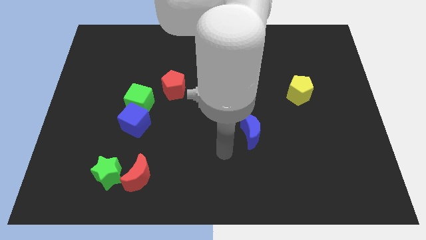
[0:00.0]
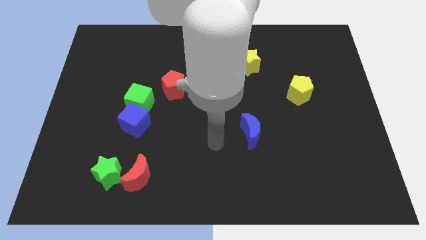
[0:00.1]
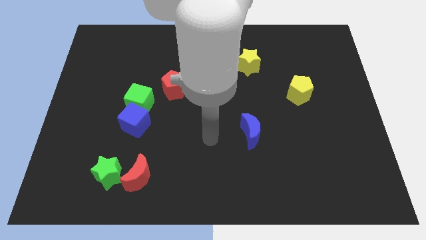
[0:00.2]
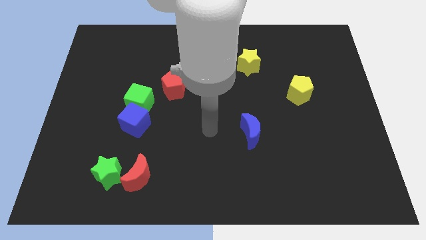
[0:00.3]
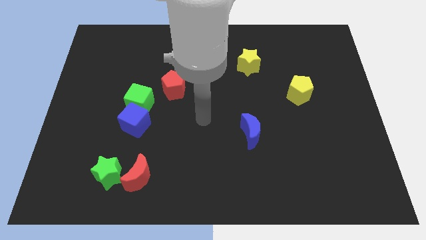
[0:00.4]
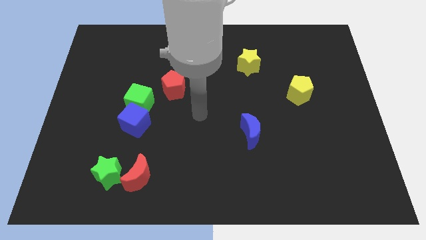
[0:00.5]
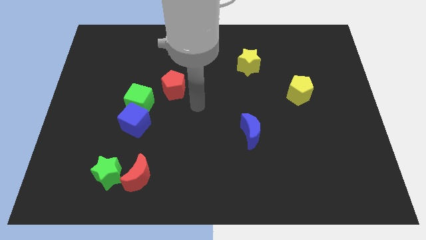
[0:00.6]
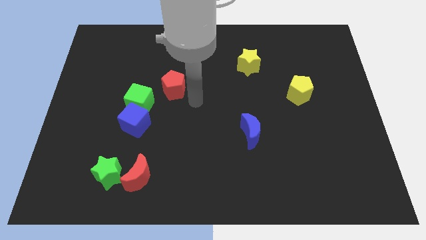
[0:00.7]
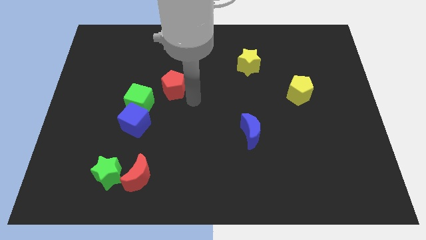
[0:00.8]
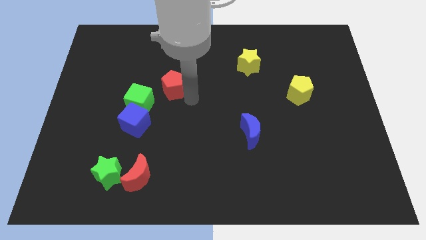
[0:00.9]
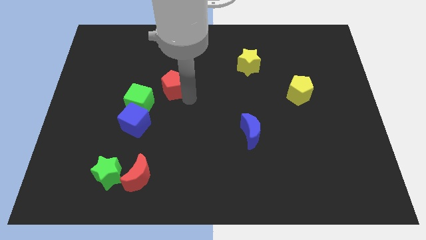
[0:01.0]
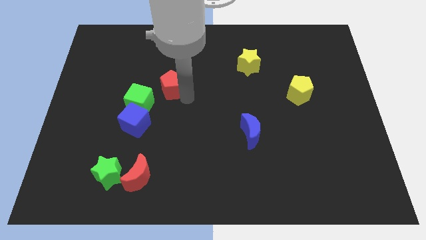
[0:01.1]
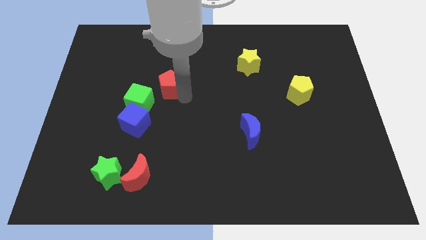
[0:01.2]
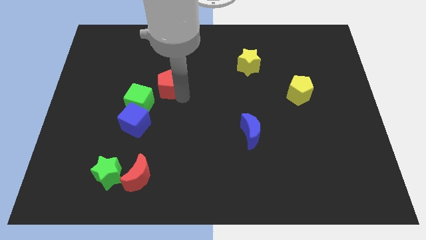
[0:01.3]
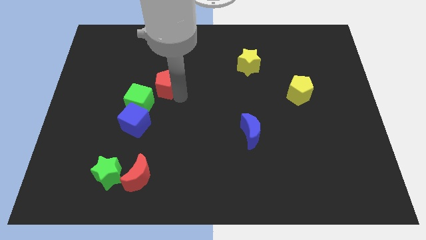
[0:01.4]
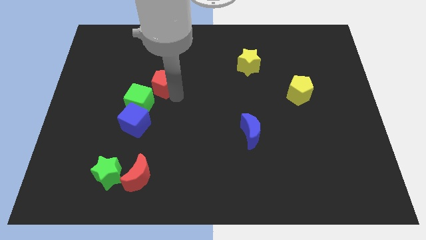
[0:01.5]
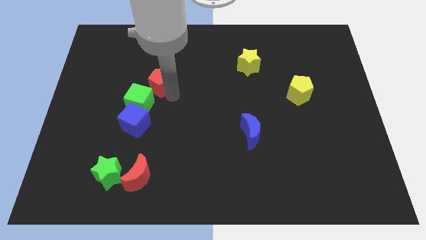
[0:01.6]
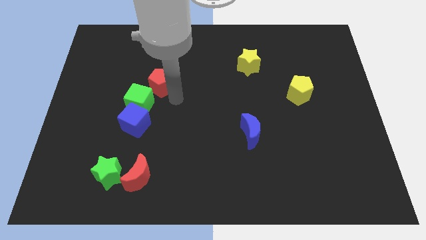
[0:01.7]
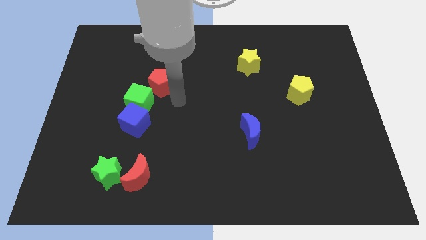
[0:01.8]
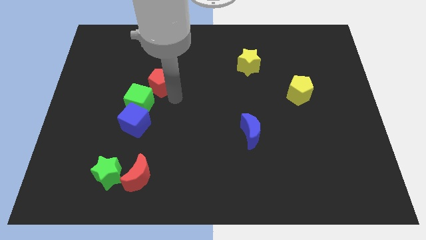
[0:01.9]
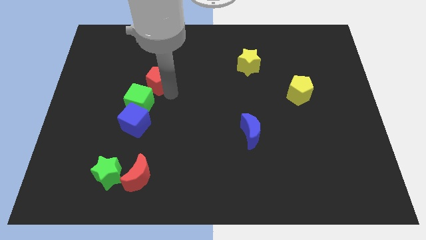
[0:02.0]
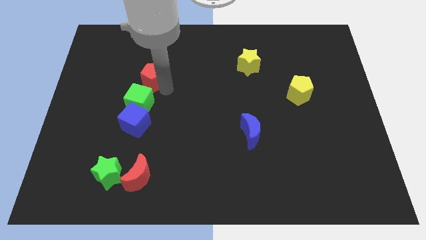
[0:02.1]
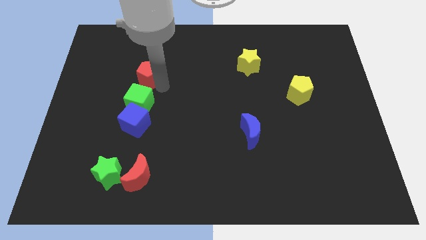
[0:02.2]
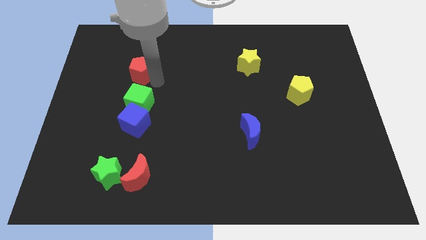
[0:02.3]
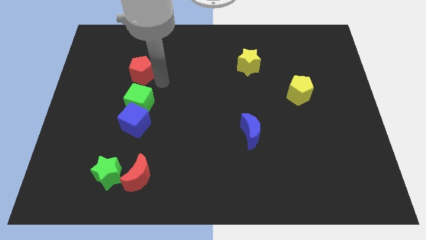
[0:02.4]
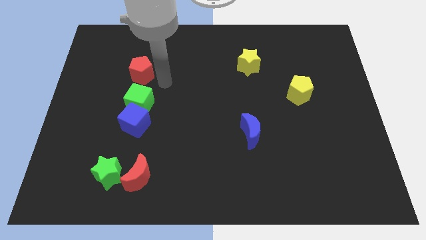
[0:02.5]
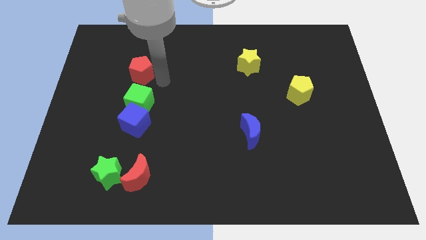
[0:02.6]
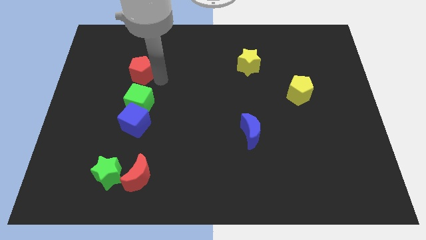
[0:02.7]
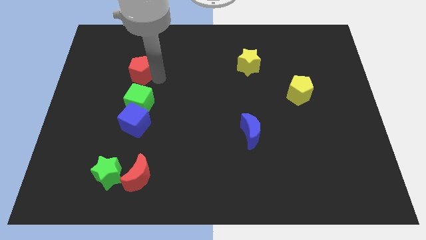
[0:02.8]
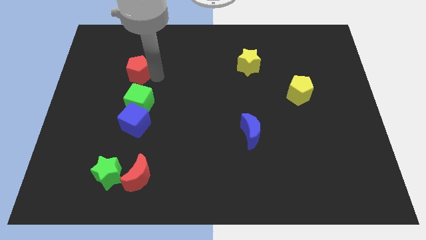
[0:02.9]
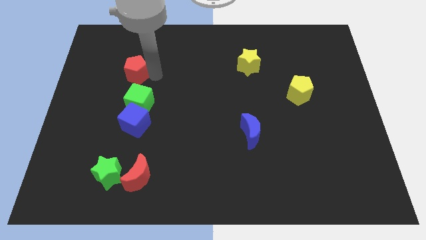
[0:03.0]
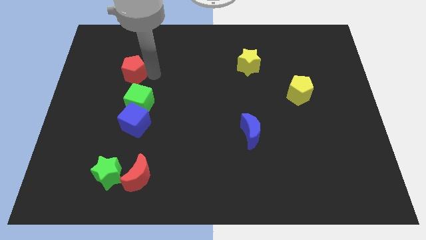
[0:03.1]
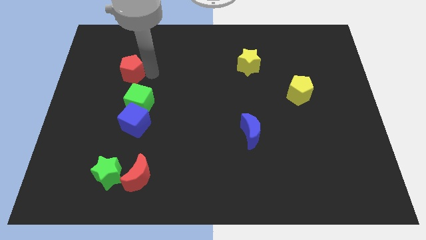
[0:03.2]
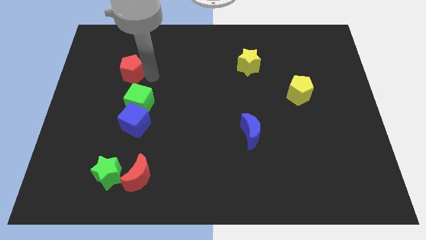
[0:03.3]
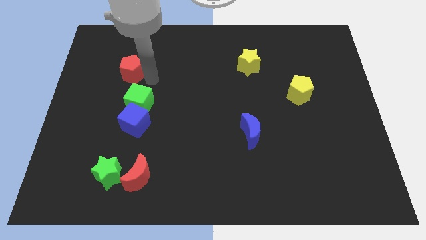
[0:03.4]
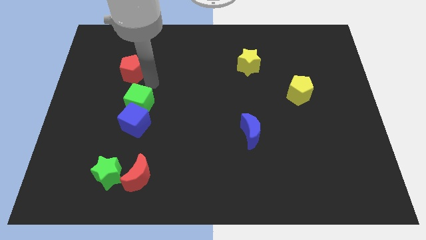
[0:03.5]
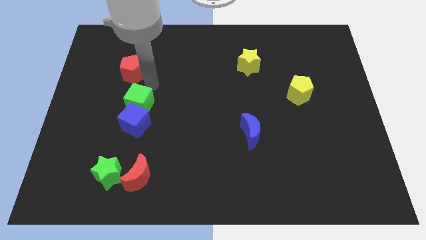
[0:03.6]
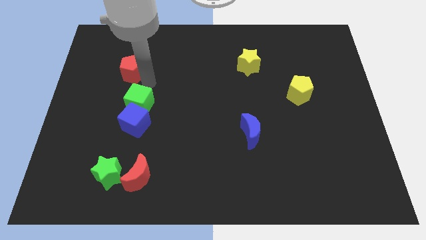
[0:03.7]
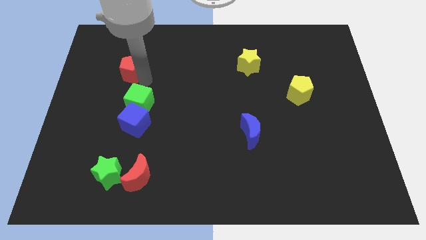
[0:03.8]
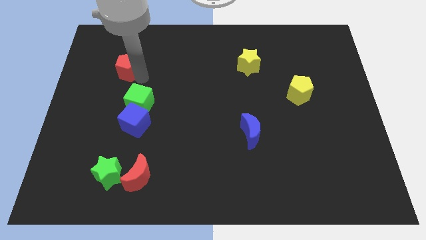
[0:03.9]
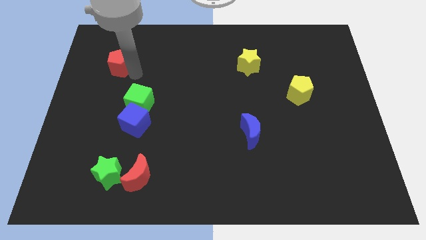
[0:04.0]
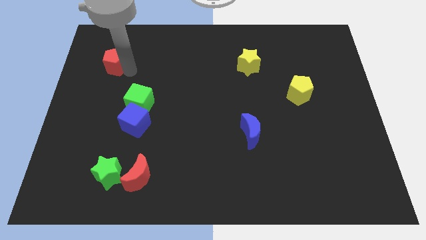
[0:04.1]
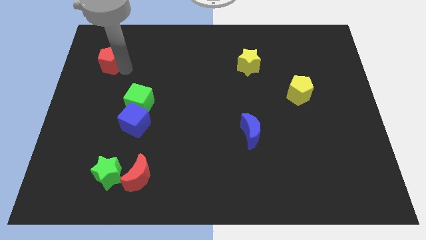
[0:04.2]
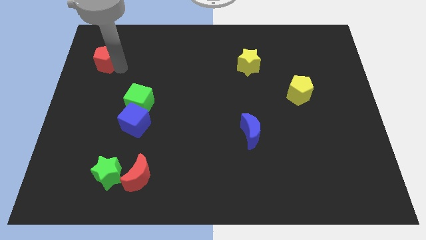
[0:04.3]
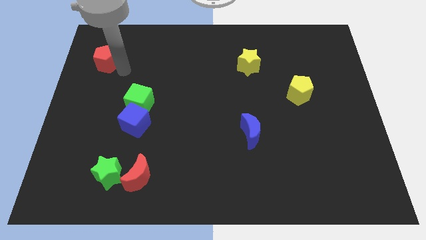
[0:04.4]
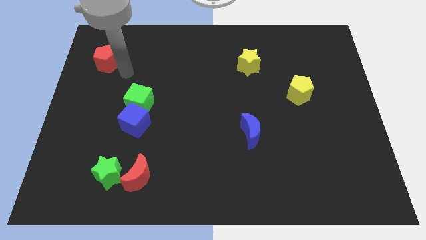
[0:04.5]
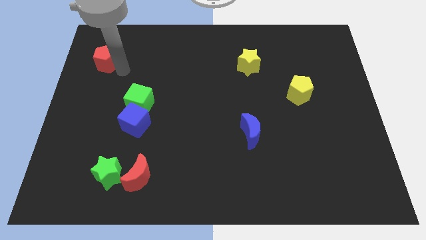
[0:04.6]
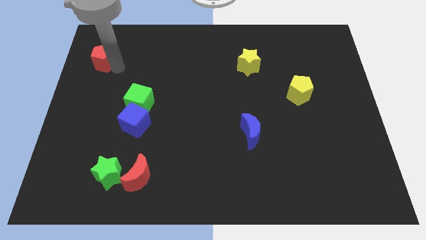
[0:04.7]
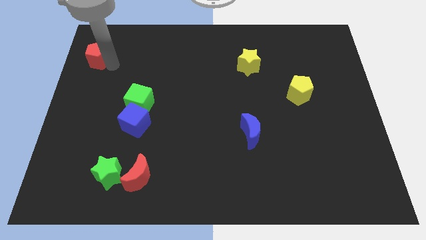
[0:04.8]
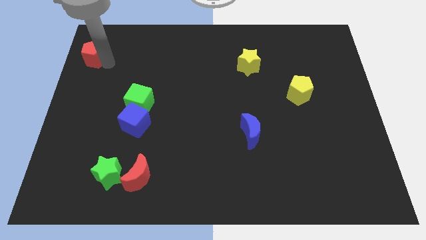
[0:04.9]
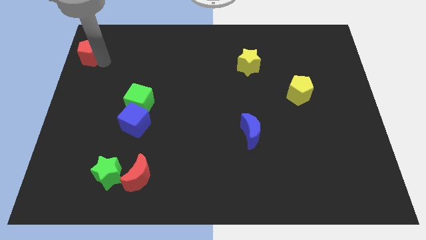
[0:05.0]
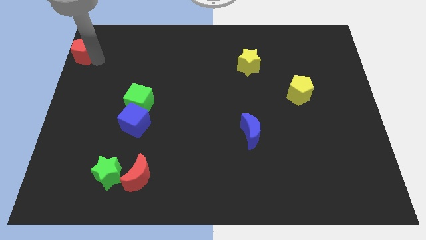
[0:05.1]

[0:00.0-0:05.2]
move the red pentagon to the top left corner

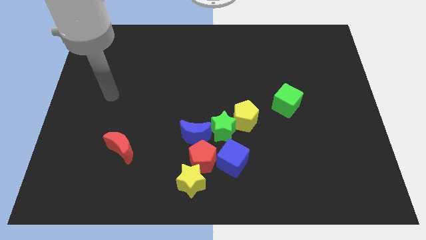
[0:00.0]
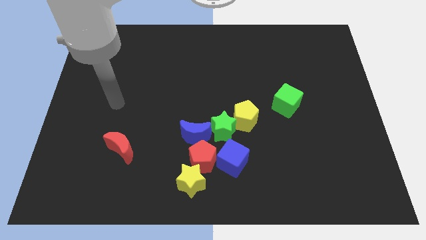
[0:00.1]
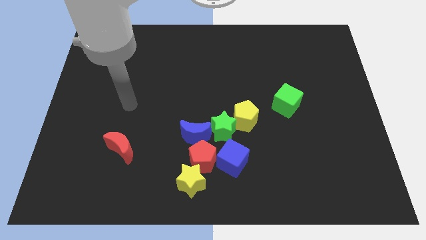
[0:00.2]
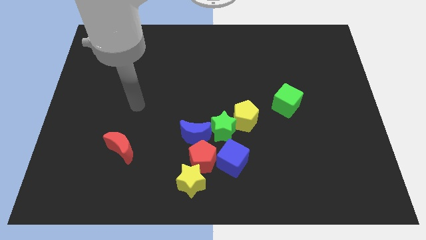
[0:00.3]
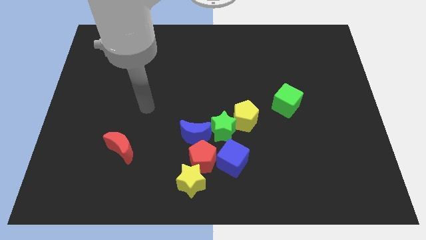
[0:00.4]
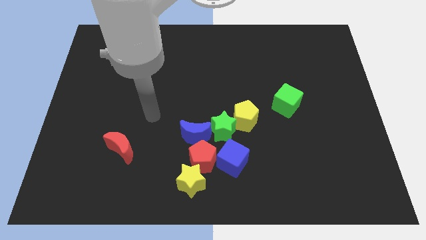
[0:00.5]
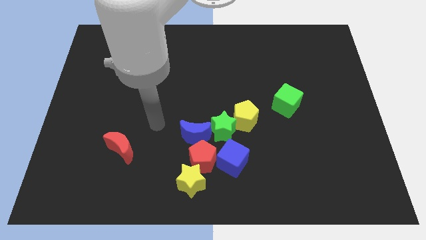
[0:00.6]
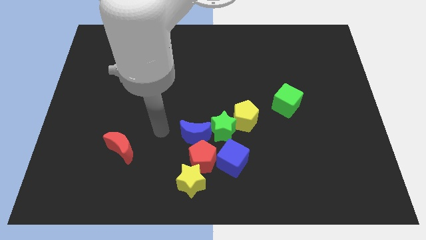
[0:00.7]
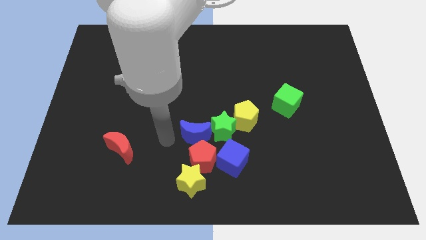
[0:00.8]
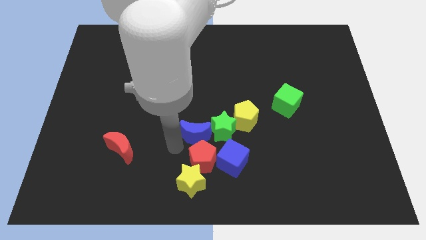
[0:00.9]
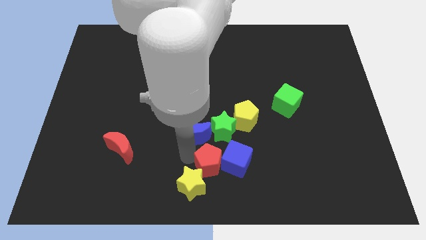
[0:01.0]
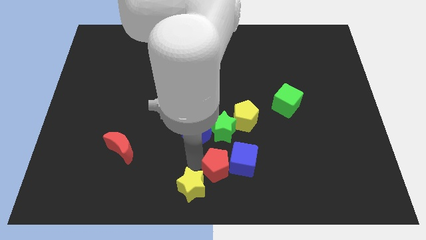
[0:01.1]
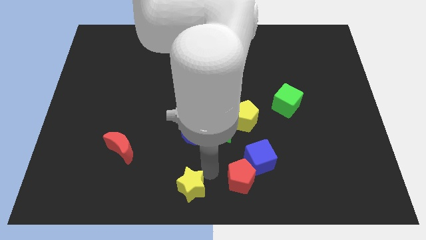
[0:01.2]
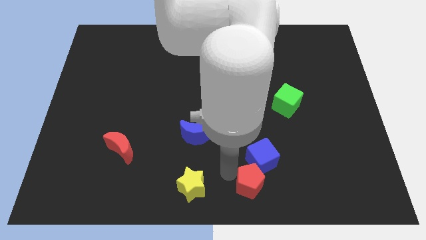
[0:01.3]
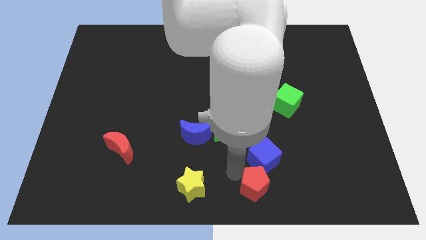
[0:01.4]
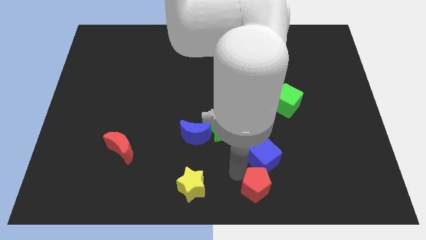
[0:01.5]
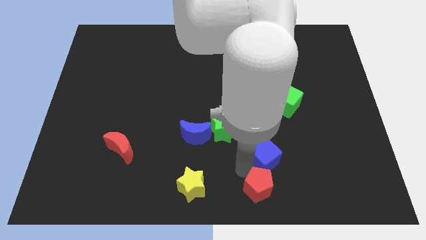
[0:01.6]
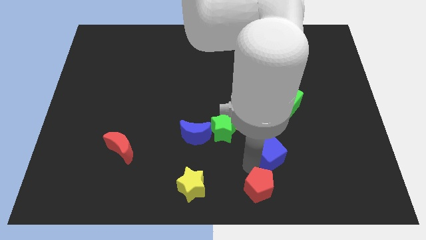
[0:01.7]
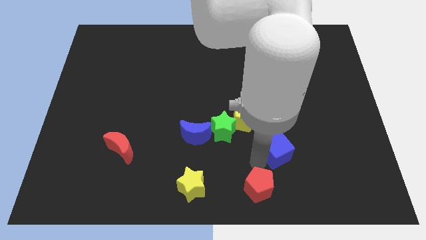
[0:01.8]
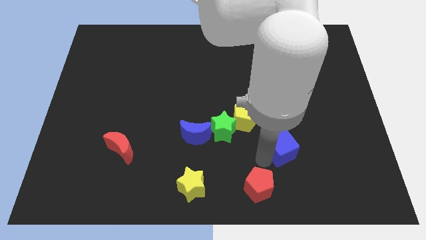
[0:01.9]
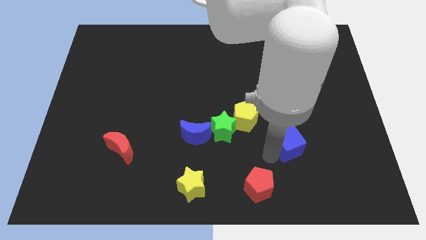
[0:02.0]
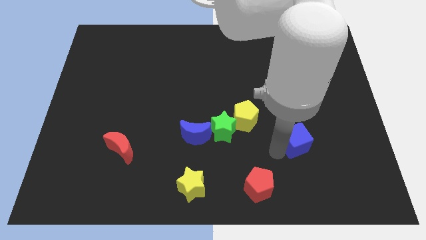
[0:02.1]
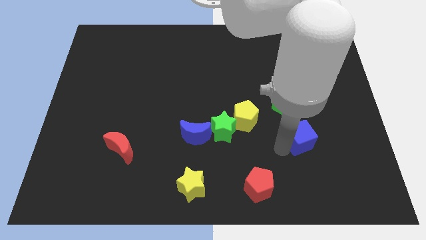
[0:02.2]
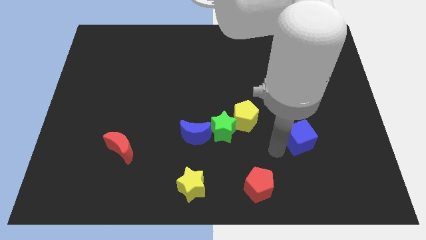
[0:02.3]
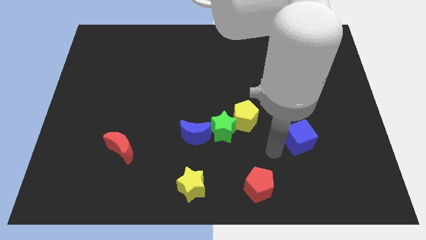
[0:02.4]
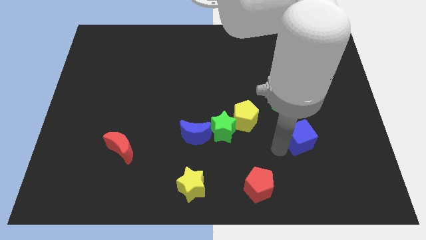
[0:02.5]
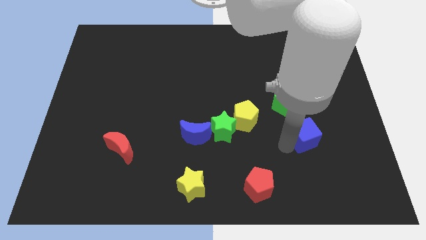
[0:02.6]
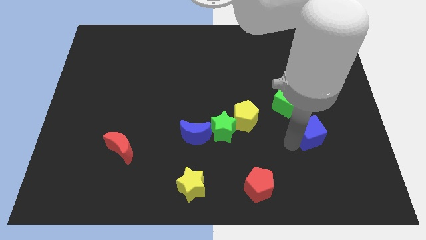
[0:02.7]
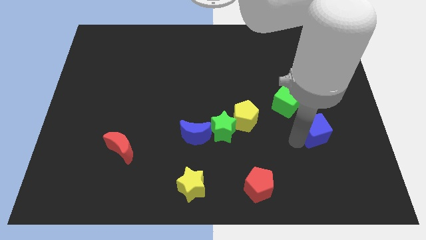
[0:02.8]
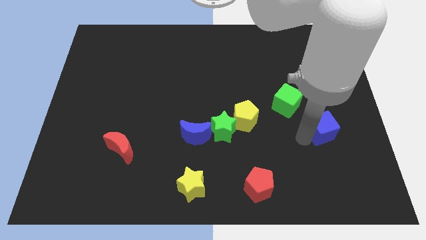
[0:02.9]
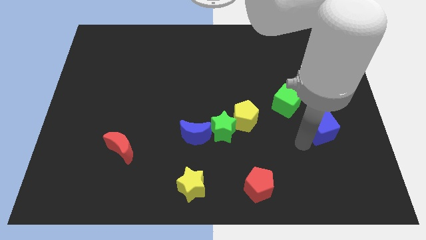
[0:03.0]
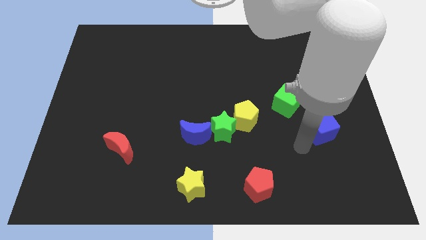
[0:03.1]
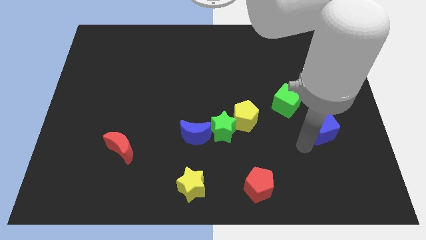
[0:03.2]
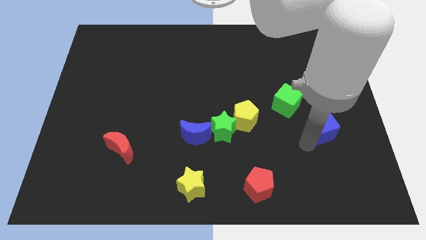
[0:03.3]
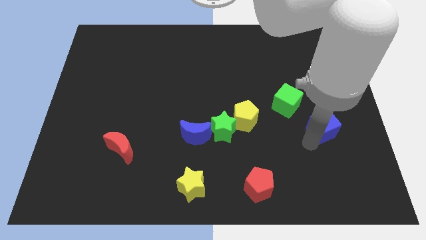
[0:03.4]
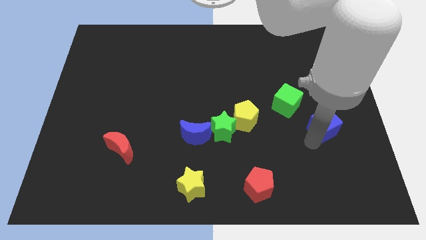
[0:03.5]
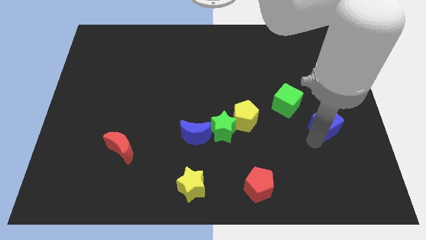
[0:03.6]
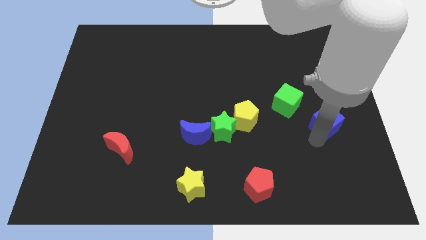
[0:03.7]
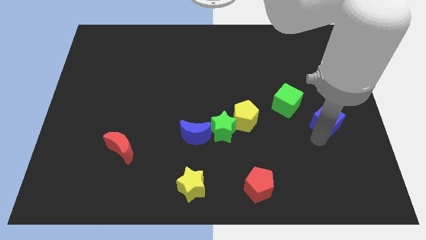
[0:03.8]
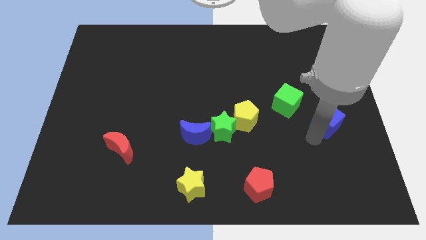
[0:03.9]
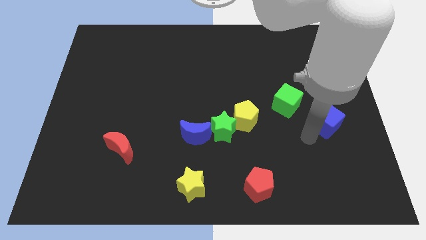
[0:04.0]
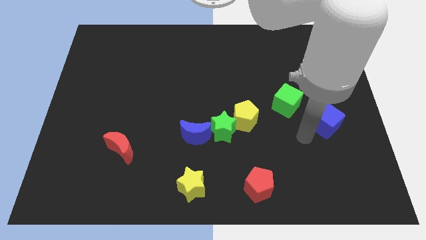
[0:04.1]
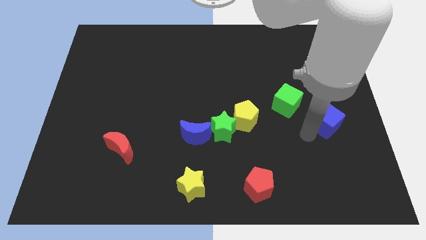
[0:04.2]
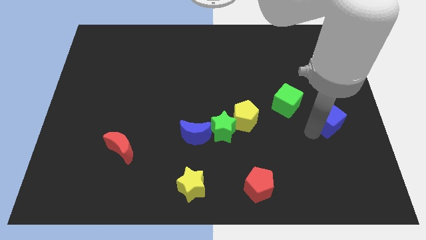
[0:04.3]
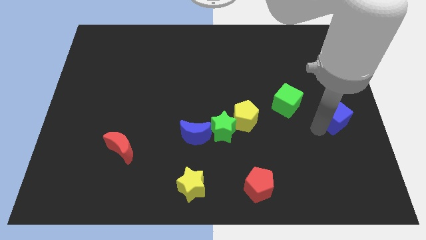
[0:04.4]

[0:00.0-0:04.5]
slide the blue cube to the right side
